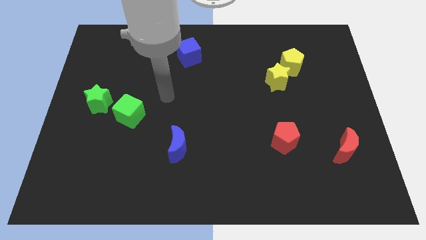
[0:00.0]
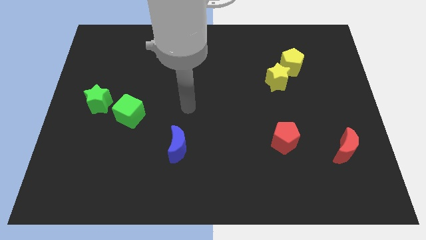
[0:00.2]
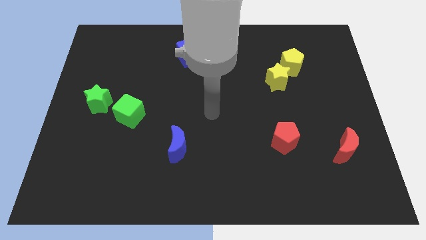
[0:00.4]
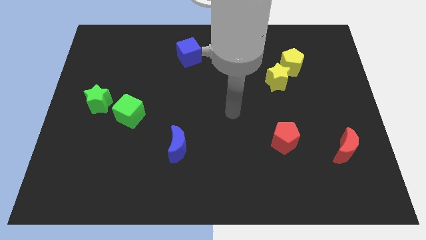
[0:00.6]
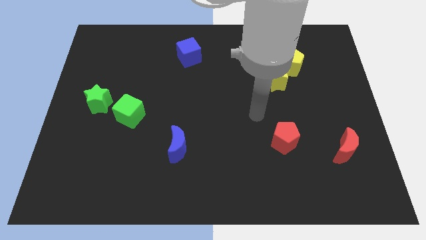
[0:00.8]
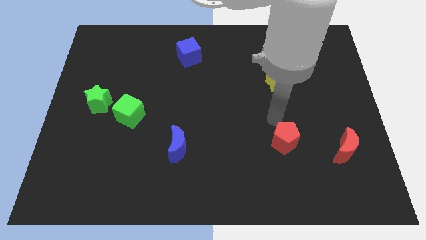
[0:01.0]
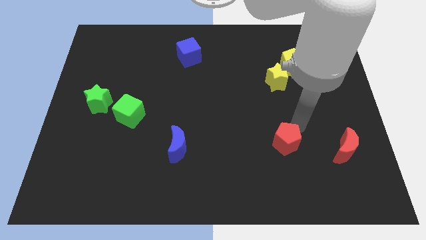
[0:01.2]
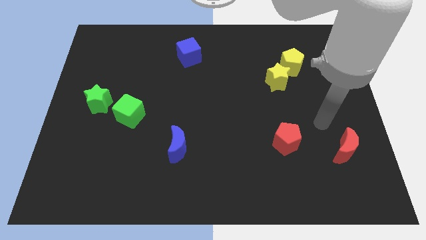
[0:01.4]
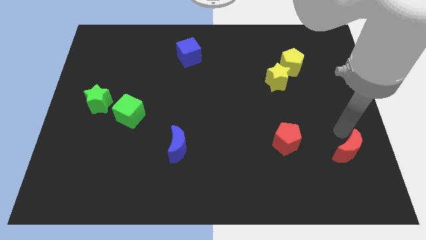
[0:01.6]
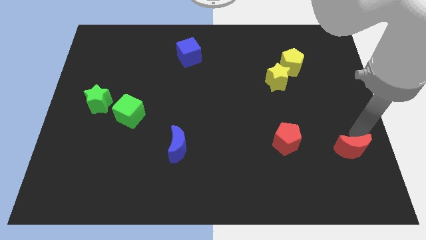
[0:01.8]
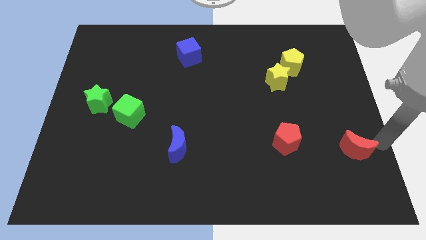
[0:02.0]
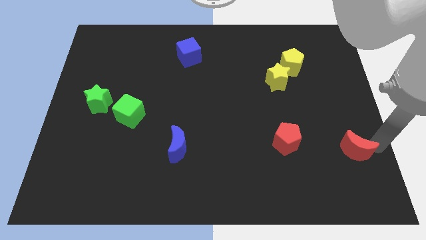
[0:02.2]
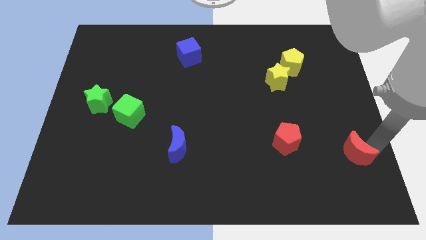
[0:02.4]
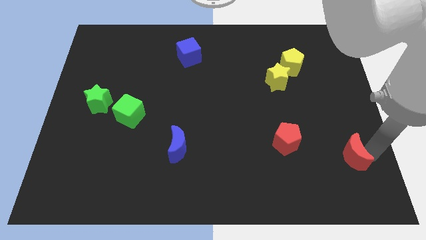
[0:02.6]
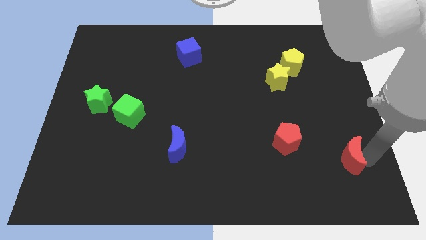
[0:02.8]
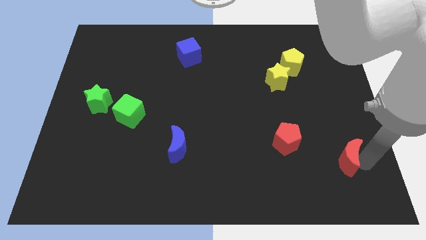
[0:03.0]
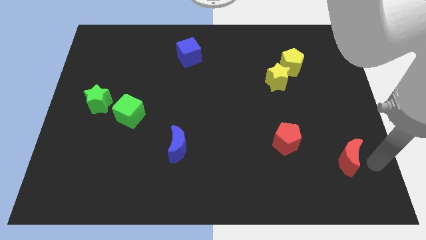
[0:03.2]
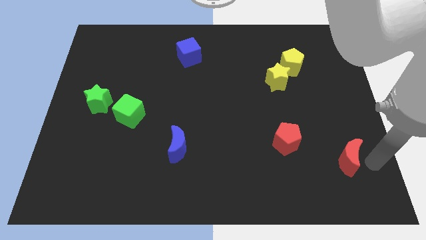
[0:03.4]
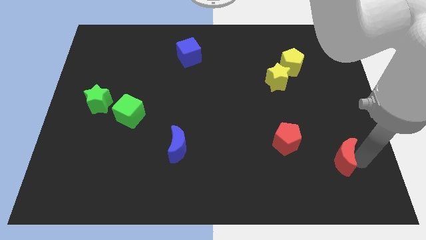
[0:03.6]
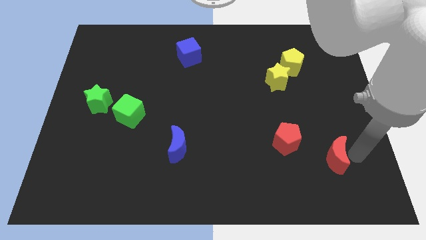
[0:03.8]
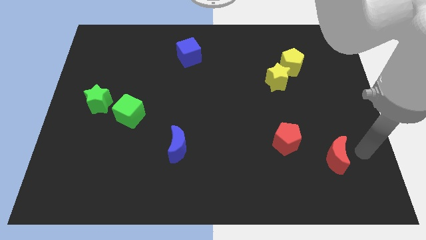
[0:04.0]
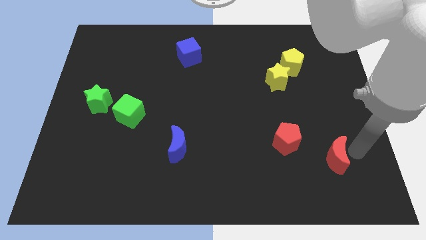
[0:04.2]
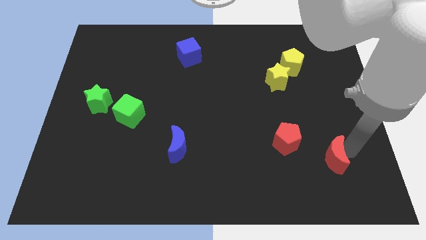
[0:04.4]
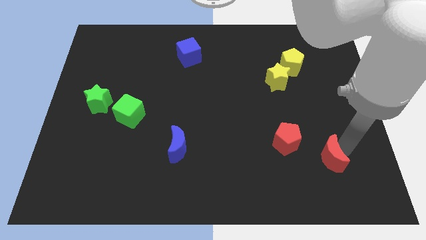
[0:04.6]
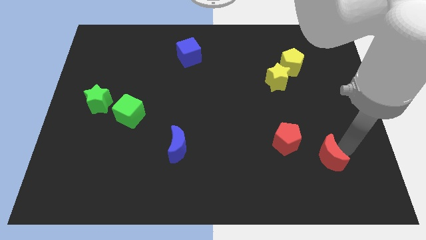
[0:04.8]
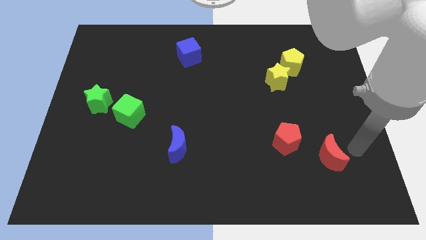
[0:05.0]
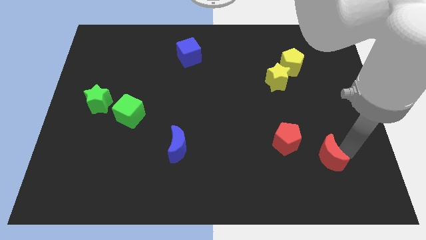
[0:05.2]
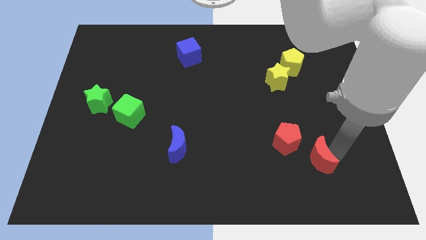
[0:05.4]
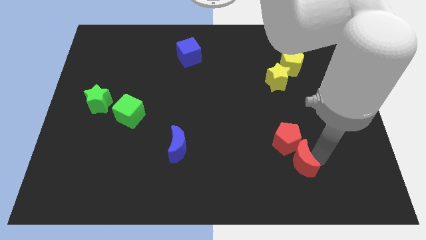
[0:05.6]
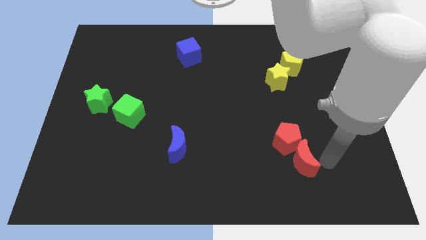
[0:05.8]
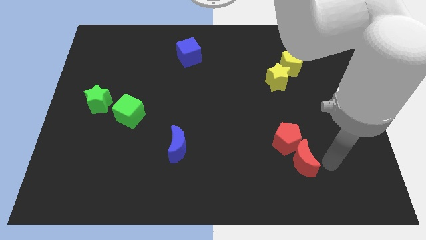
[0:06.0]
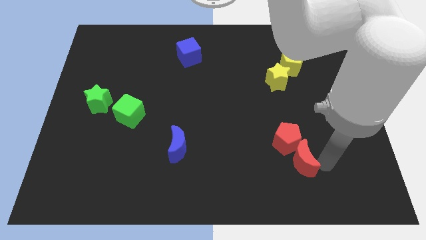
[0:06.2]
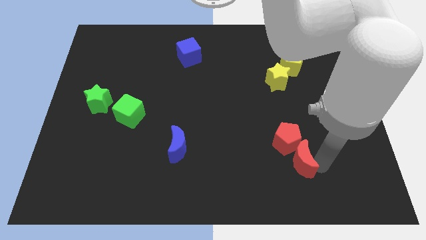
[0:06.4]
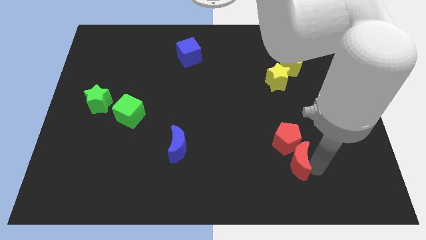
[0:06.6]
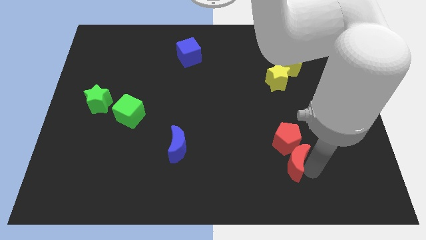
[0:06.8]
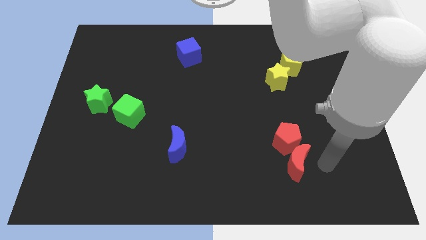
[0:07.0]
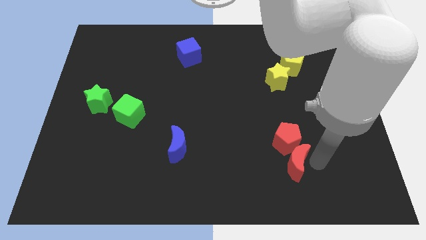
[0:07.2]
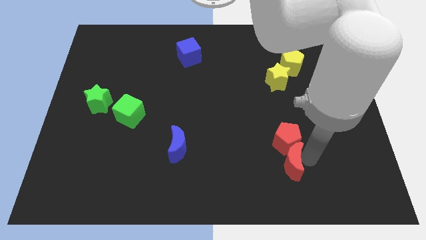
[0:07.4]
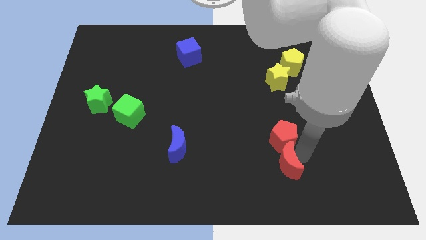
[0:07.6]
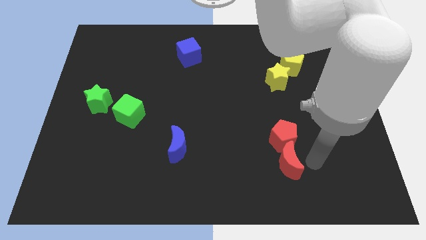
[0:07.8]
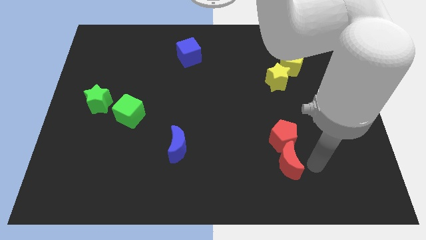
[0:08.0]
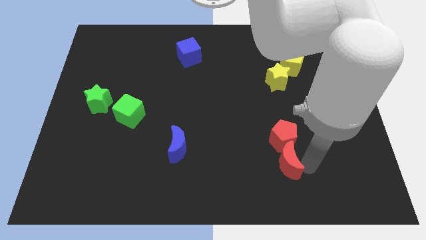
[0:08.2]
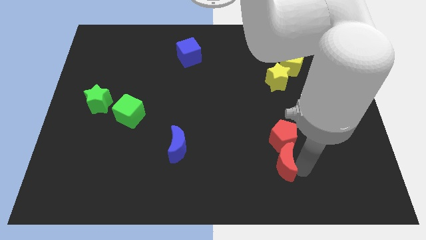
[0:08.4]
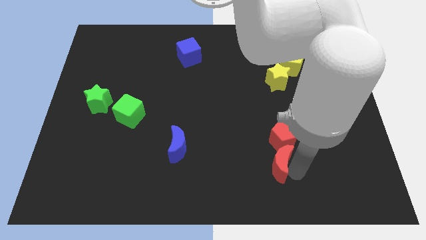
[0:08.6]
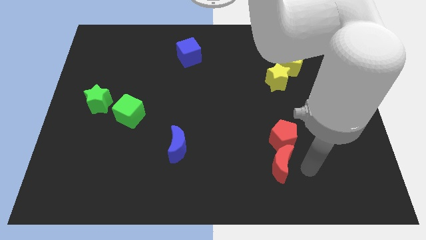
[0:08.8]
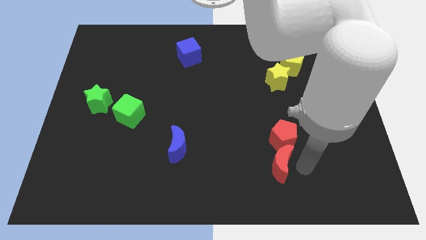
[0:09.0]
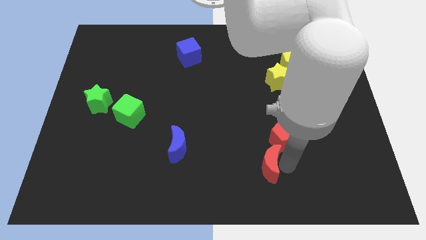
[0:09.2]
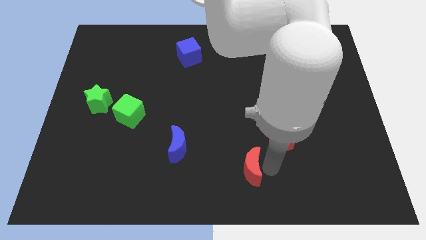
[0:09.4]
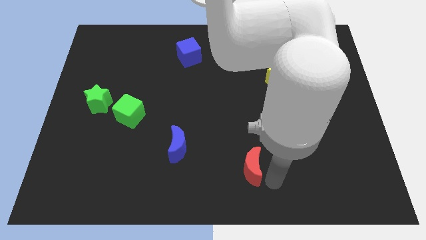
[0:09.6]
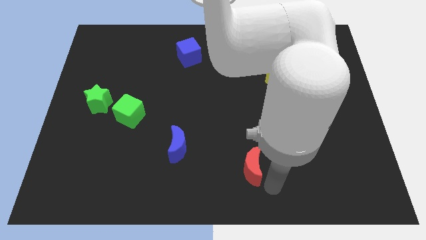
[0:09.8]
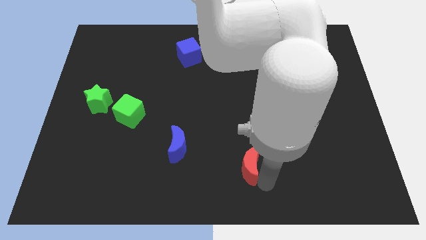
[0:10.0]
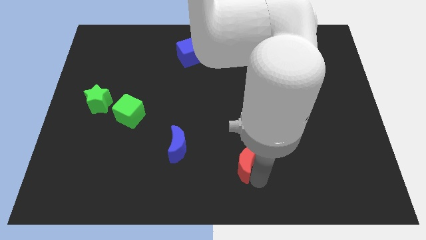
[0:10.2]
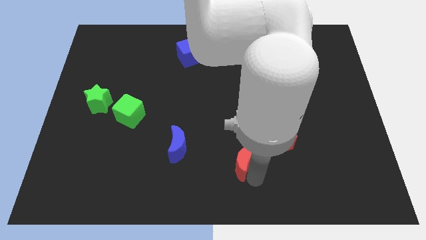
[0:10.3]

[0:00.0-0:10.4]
slide the red moon to the right of the blue moon

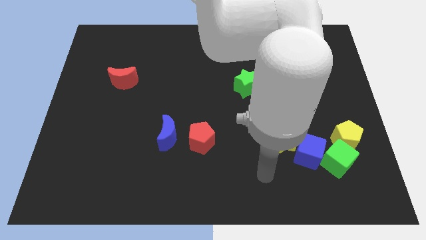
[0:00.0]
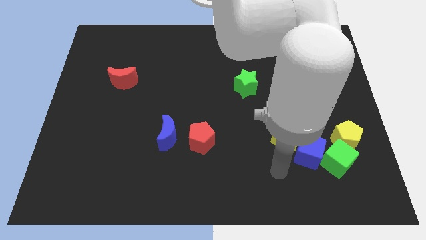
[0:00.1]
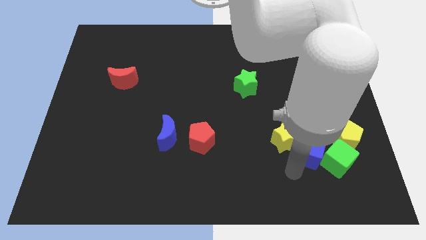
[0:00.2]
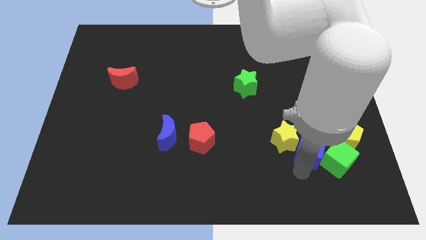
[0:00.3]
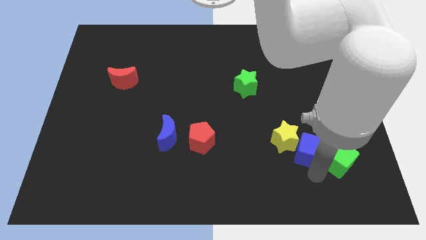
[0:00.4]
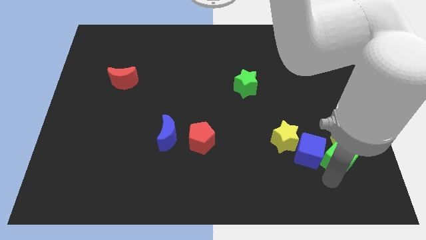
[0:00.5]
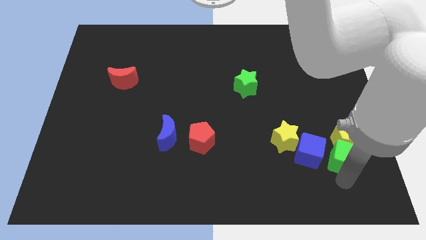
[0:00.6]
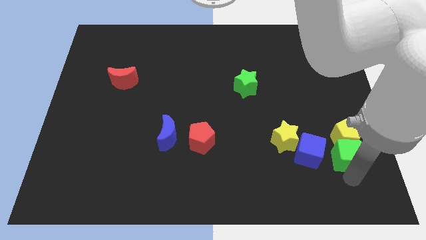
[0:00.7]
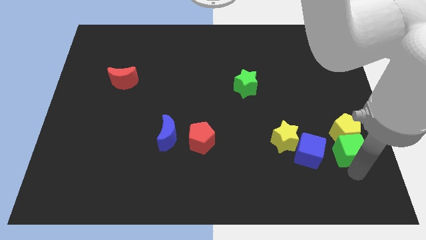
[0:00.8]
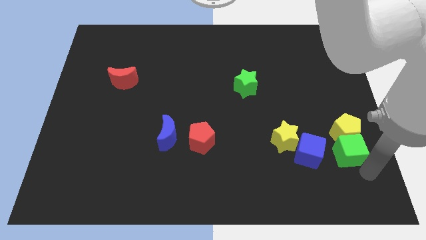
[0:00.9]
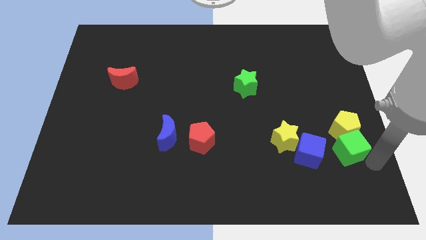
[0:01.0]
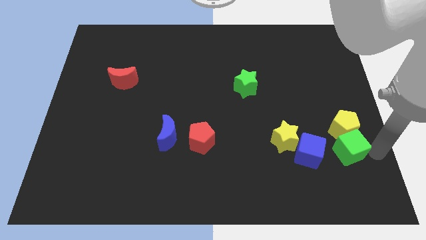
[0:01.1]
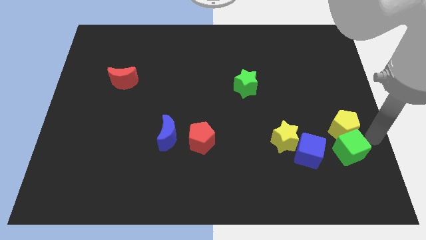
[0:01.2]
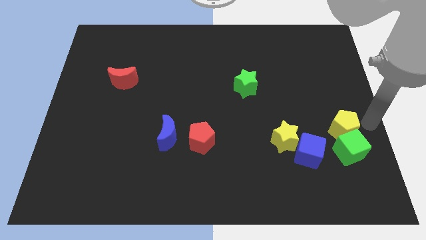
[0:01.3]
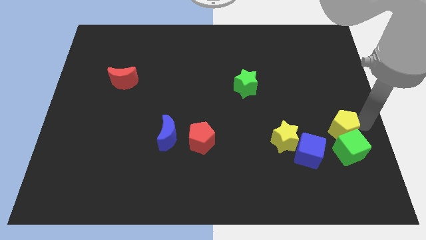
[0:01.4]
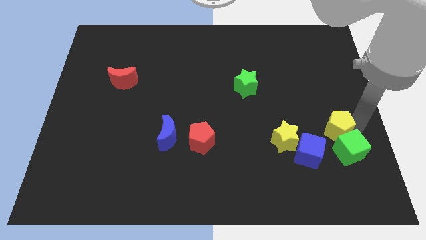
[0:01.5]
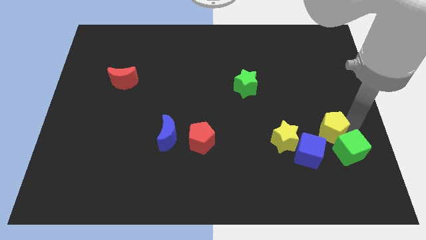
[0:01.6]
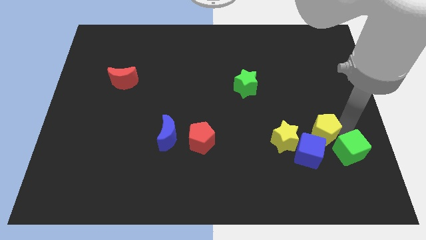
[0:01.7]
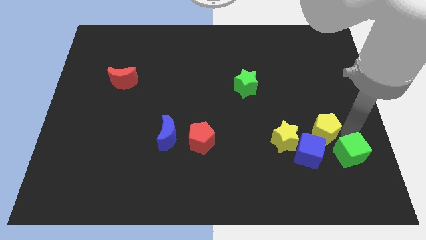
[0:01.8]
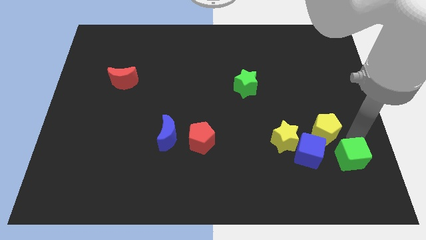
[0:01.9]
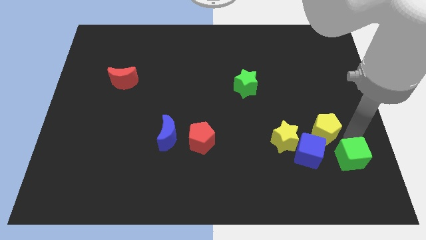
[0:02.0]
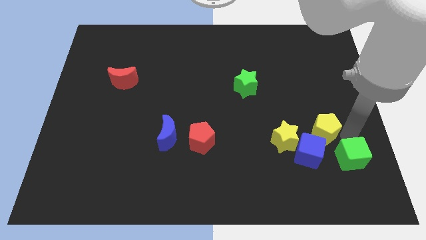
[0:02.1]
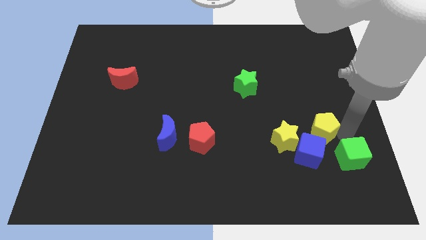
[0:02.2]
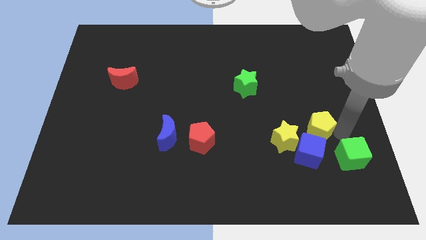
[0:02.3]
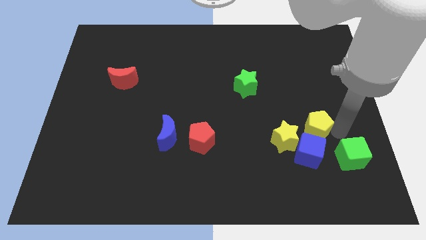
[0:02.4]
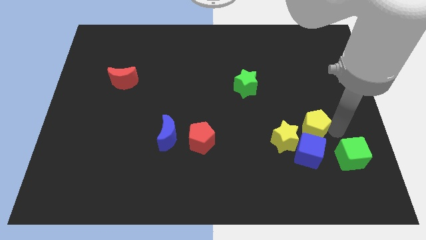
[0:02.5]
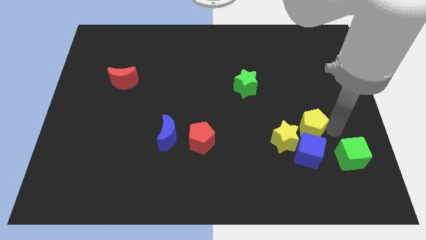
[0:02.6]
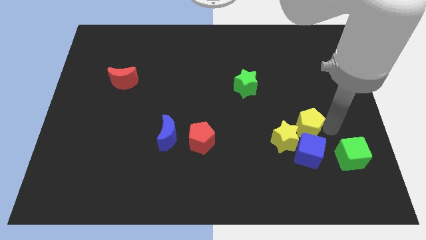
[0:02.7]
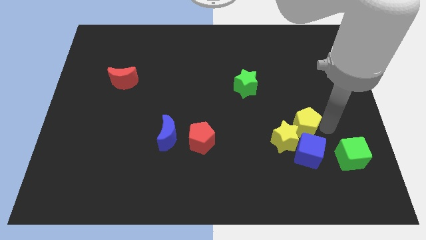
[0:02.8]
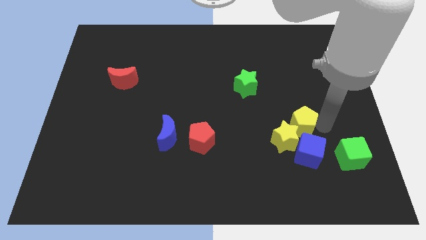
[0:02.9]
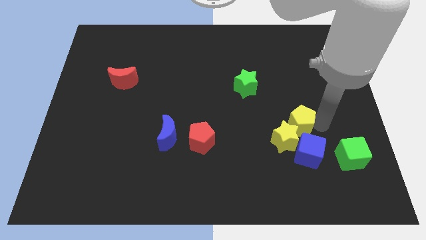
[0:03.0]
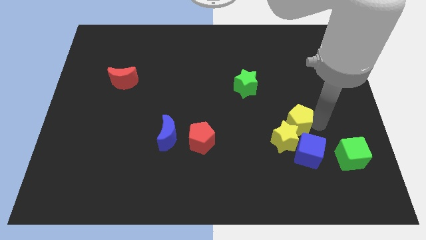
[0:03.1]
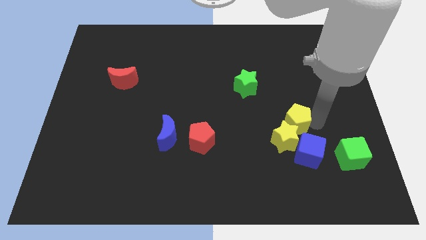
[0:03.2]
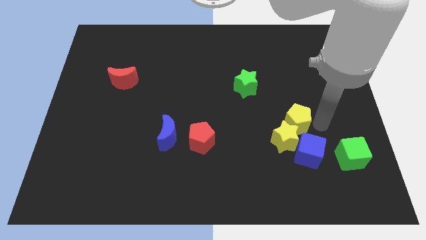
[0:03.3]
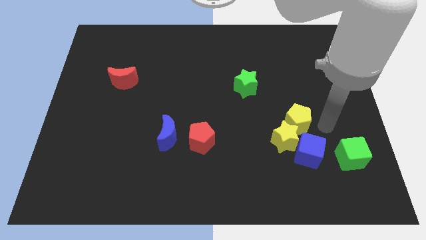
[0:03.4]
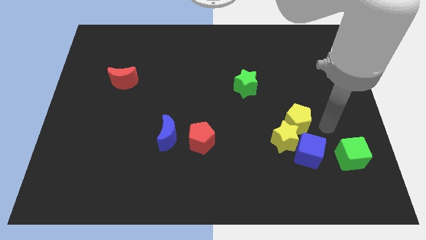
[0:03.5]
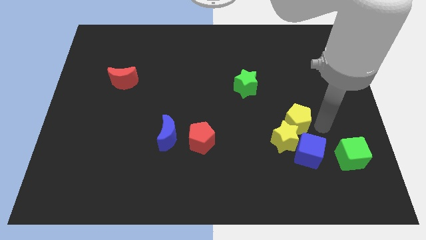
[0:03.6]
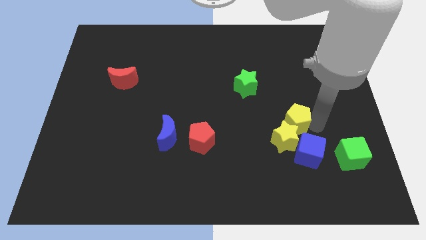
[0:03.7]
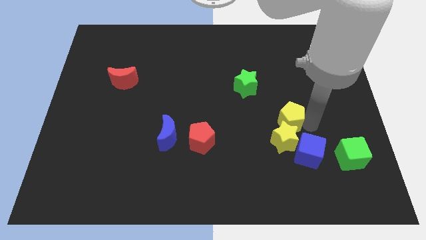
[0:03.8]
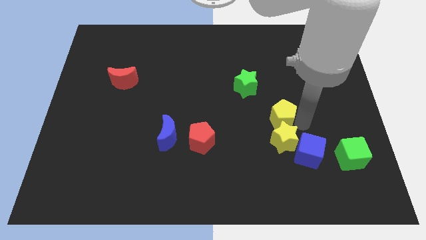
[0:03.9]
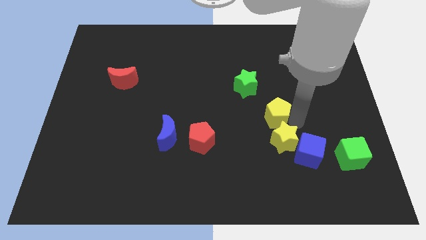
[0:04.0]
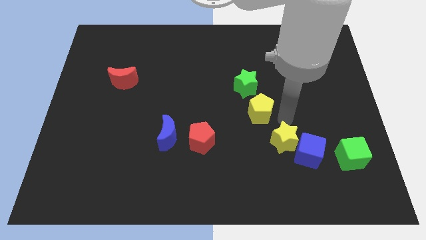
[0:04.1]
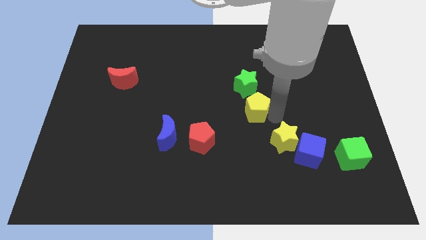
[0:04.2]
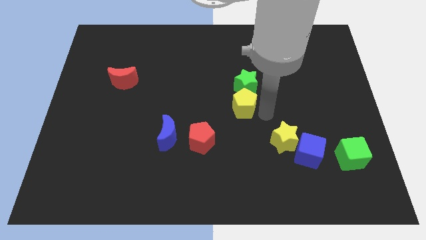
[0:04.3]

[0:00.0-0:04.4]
slide the yellow pentagon to the bottom left side of the green star
